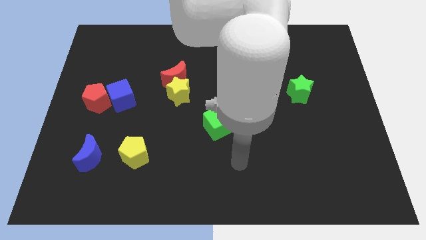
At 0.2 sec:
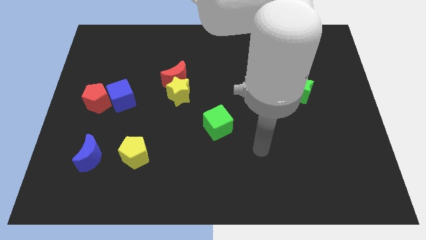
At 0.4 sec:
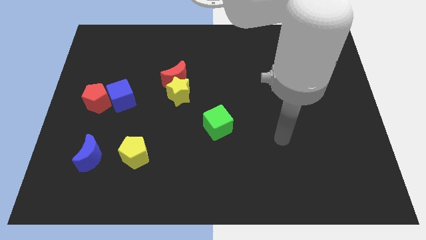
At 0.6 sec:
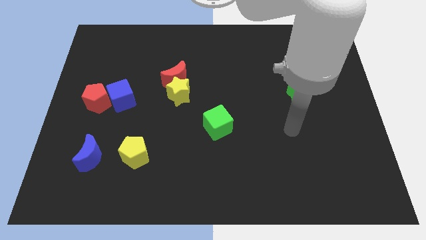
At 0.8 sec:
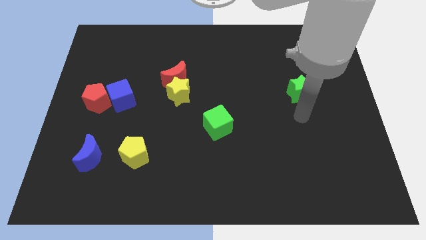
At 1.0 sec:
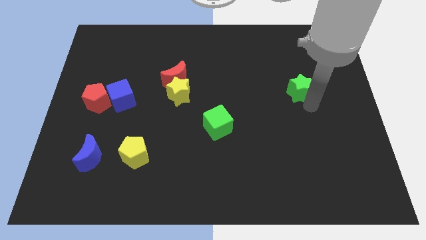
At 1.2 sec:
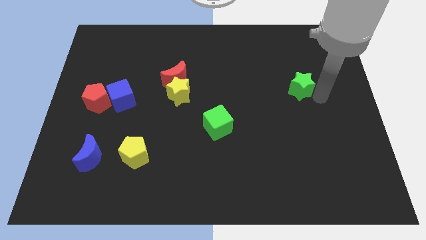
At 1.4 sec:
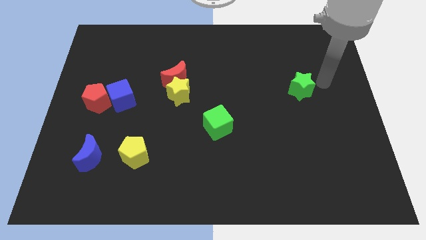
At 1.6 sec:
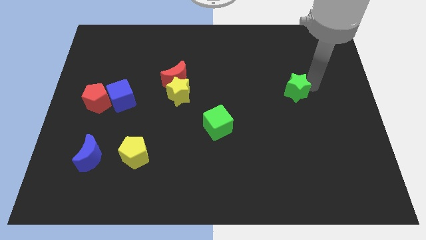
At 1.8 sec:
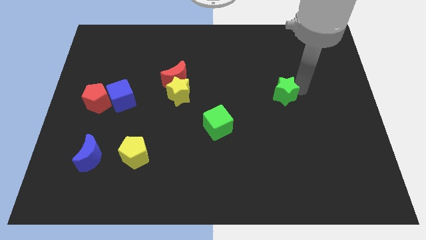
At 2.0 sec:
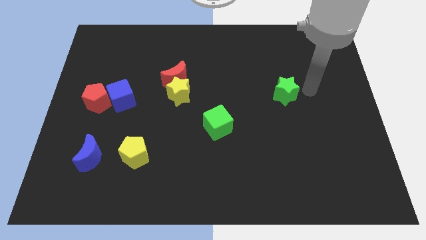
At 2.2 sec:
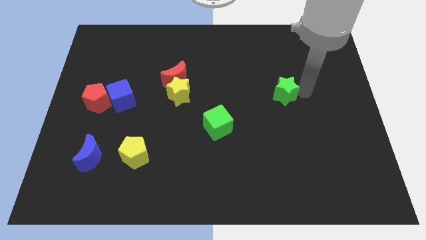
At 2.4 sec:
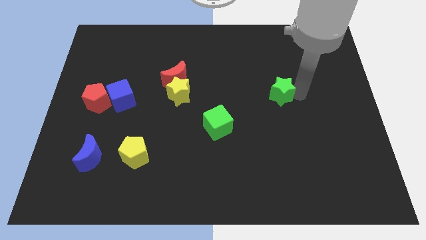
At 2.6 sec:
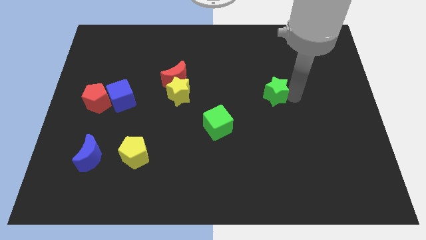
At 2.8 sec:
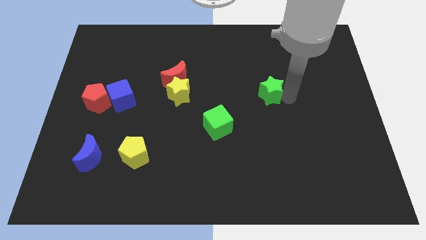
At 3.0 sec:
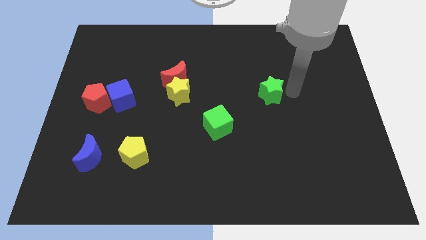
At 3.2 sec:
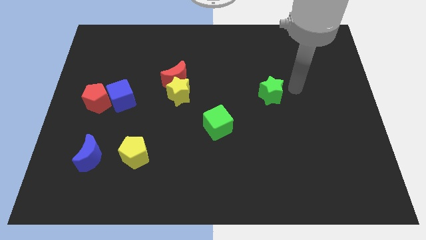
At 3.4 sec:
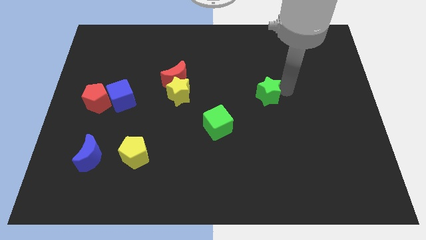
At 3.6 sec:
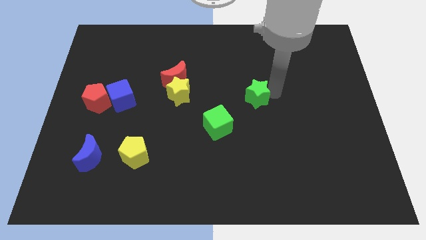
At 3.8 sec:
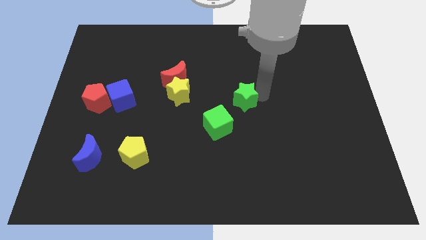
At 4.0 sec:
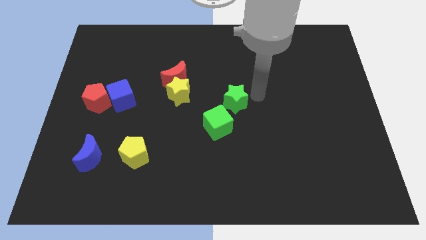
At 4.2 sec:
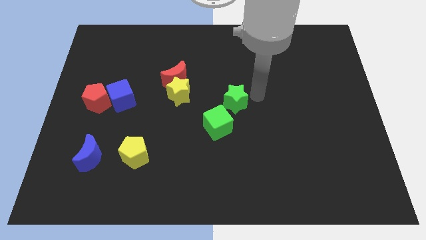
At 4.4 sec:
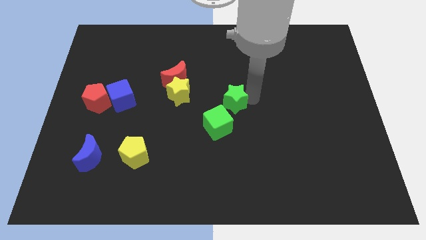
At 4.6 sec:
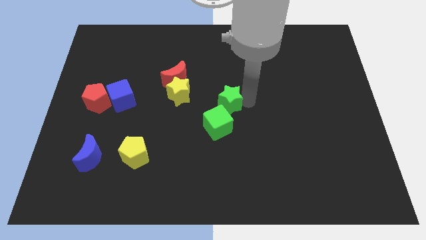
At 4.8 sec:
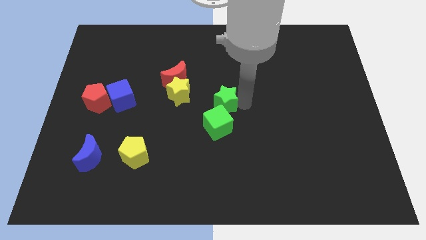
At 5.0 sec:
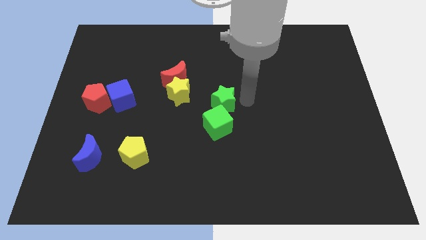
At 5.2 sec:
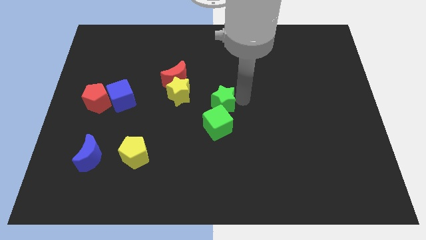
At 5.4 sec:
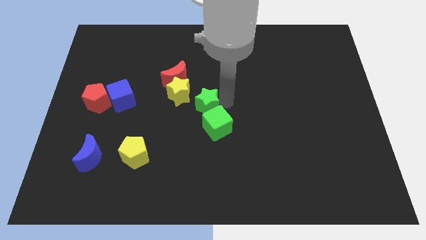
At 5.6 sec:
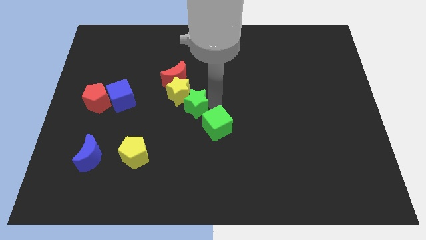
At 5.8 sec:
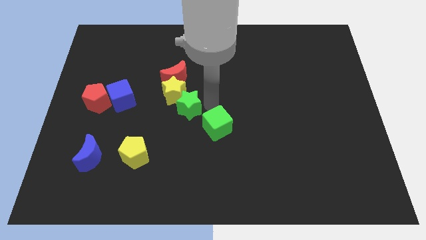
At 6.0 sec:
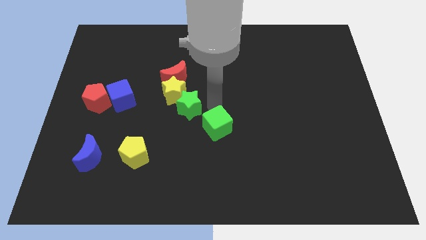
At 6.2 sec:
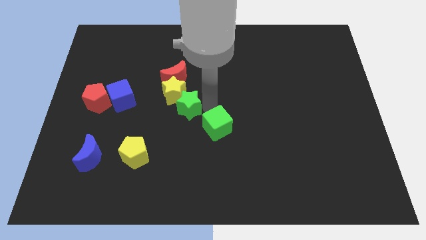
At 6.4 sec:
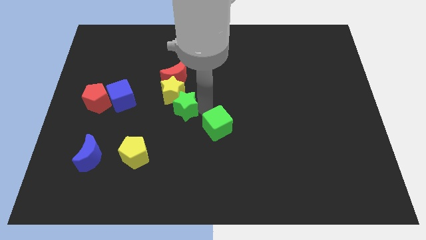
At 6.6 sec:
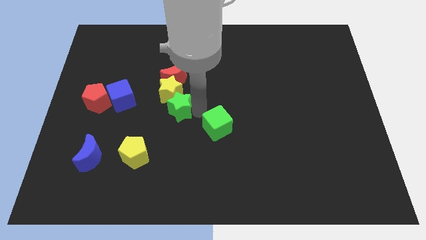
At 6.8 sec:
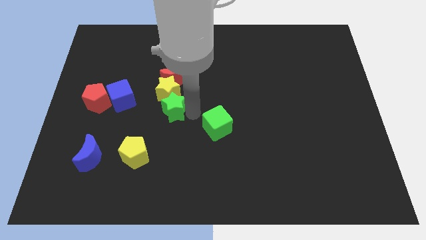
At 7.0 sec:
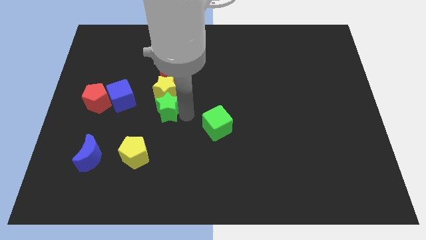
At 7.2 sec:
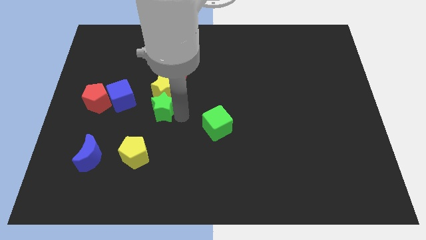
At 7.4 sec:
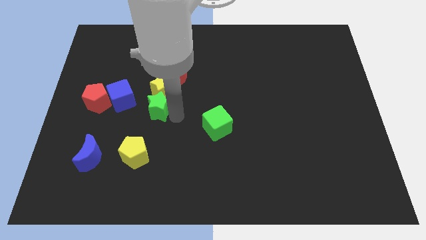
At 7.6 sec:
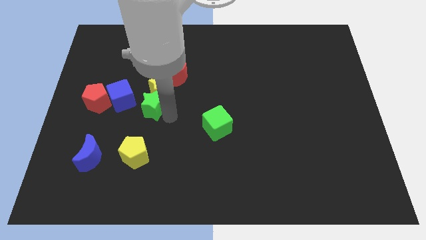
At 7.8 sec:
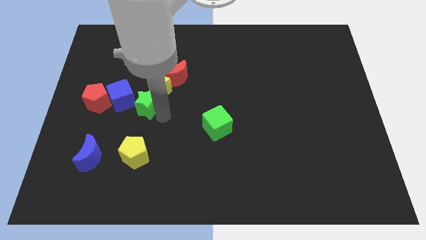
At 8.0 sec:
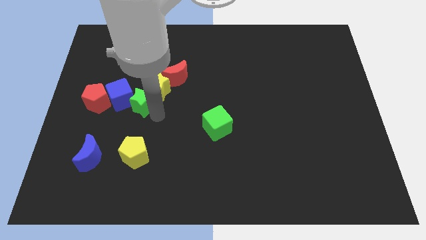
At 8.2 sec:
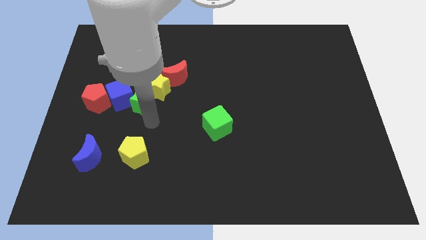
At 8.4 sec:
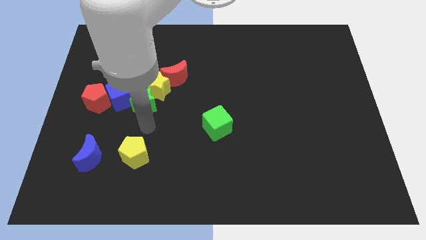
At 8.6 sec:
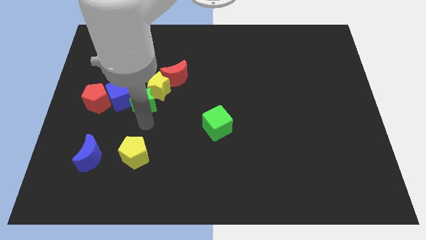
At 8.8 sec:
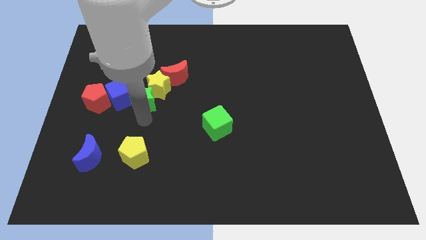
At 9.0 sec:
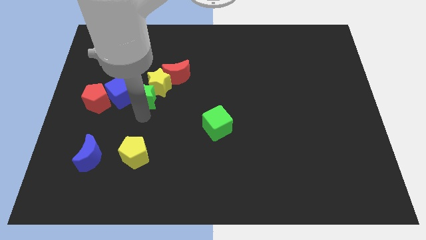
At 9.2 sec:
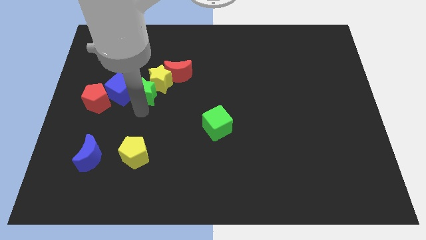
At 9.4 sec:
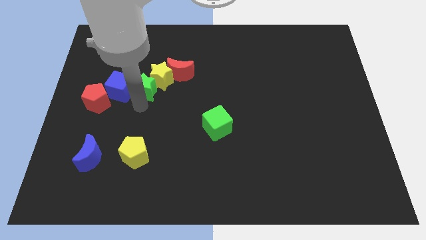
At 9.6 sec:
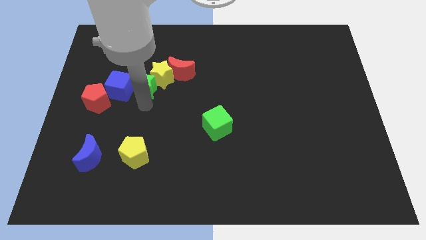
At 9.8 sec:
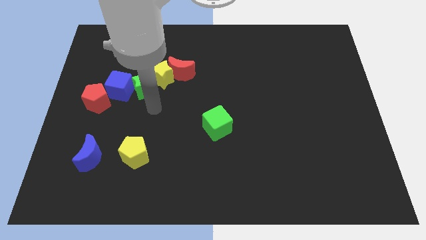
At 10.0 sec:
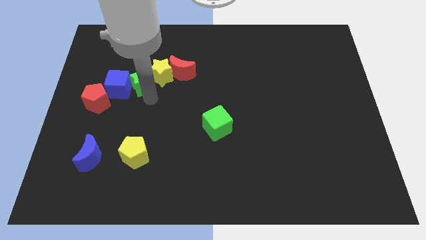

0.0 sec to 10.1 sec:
move the green star to the left of the red moon

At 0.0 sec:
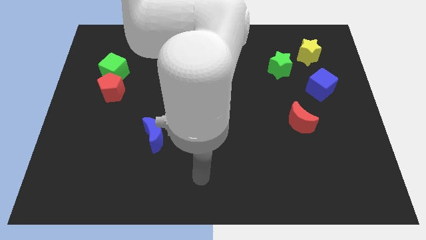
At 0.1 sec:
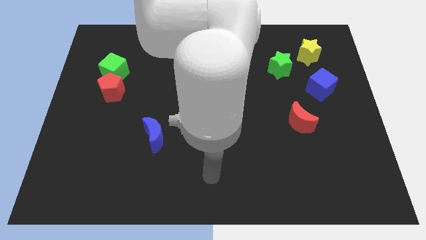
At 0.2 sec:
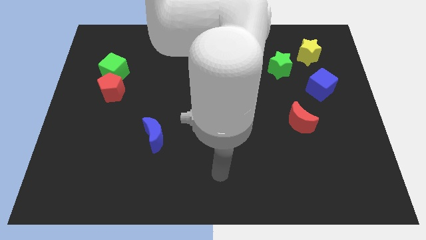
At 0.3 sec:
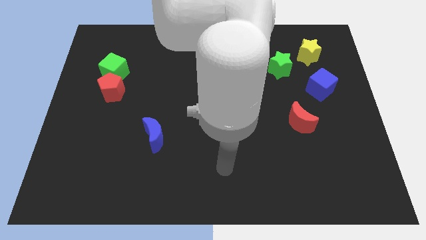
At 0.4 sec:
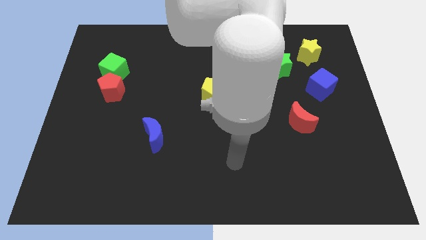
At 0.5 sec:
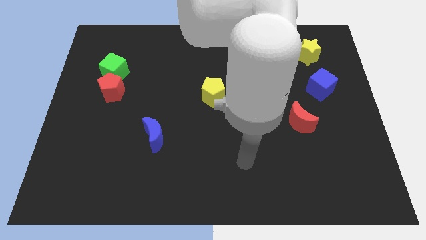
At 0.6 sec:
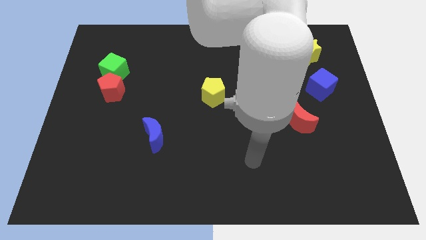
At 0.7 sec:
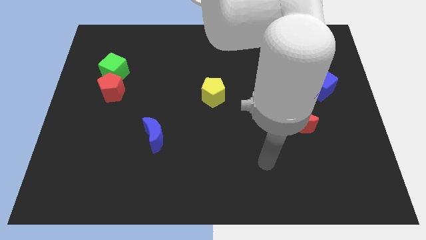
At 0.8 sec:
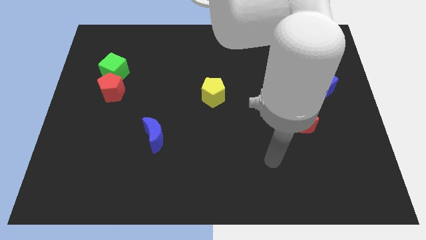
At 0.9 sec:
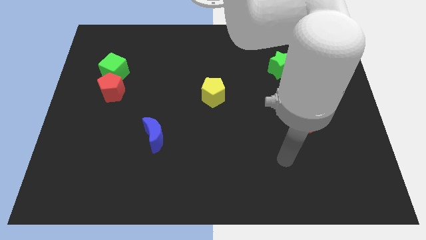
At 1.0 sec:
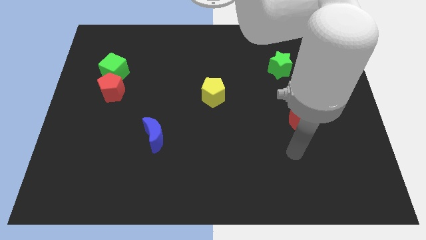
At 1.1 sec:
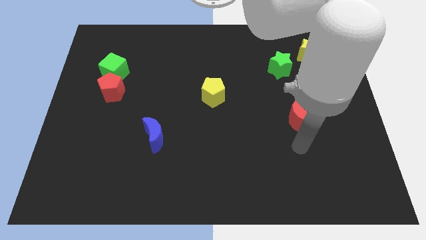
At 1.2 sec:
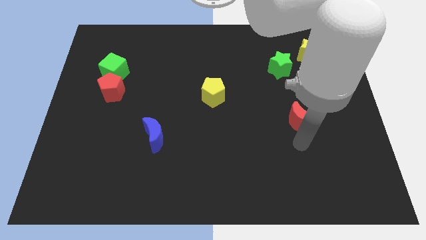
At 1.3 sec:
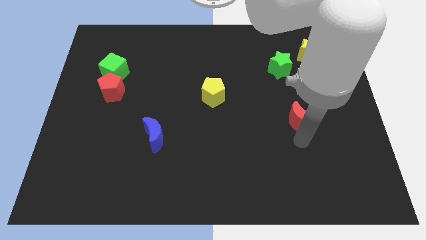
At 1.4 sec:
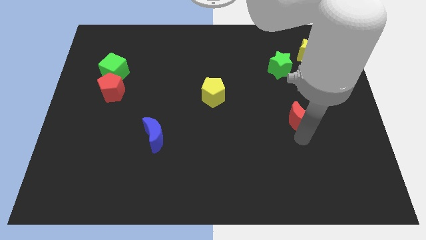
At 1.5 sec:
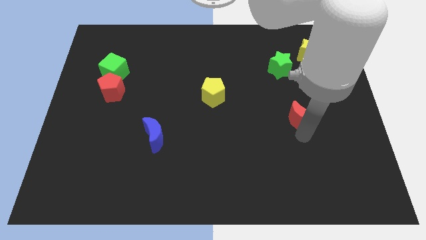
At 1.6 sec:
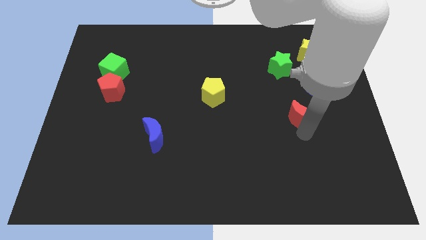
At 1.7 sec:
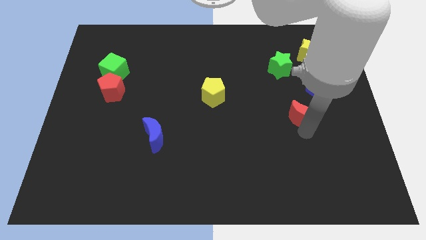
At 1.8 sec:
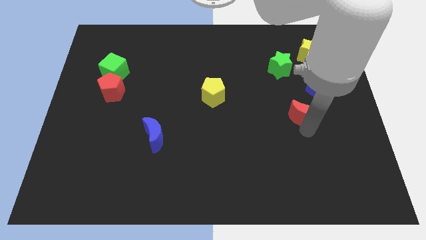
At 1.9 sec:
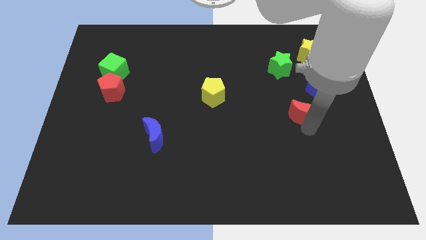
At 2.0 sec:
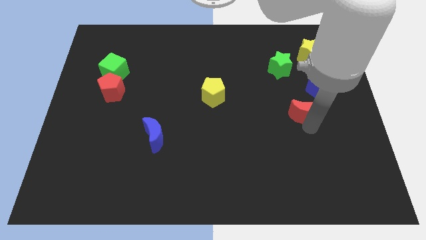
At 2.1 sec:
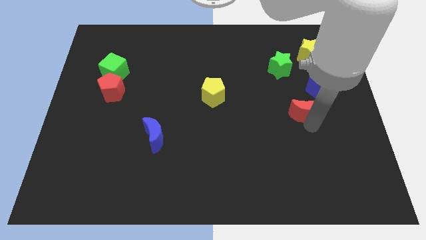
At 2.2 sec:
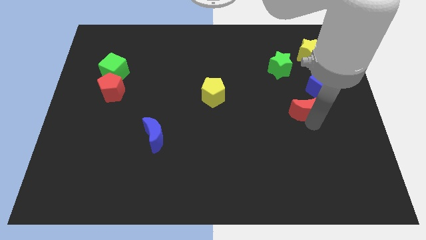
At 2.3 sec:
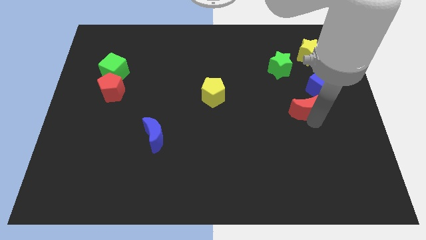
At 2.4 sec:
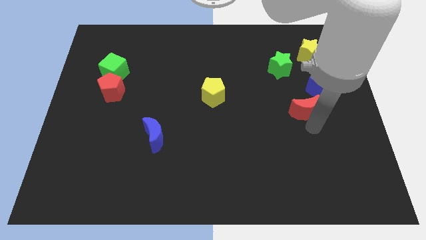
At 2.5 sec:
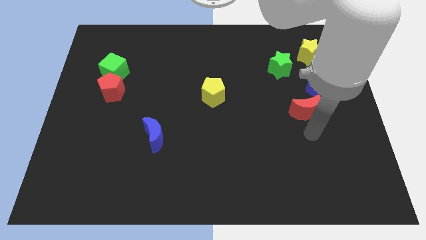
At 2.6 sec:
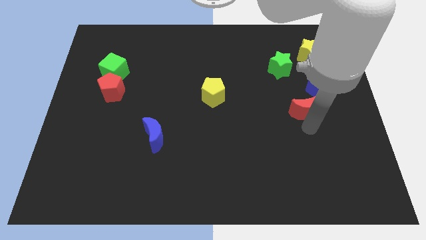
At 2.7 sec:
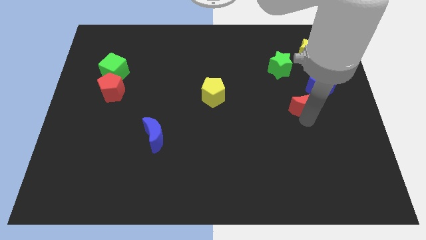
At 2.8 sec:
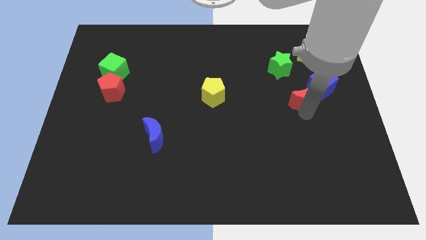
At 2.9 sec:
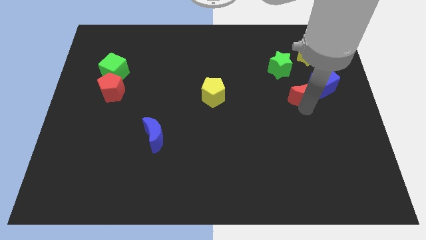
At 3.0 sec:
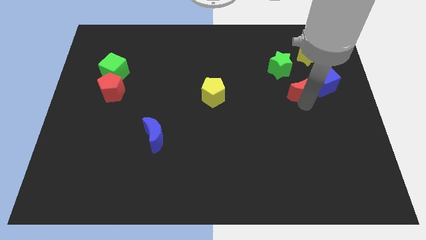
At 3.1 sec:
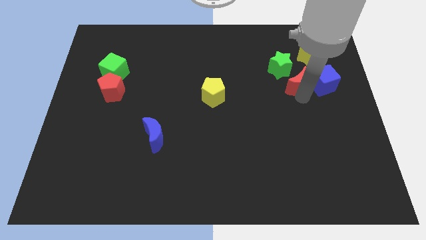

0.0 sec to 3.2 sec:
move the red moon to the top left of the blue cube
